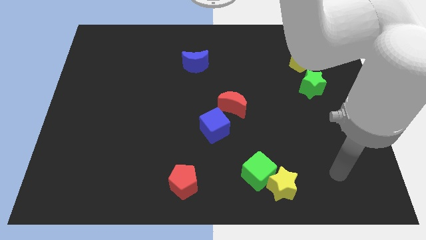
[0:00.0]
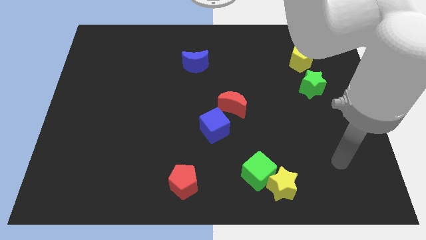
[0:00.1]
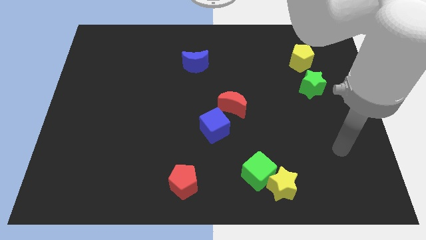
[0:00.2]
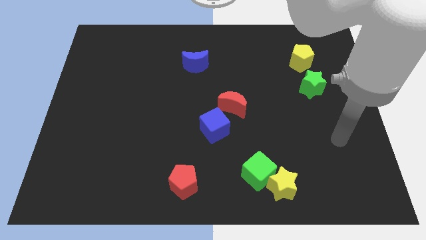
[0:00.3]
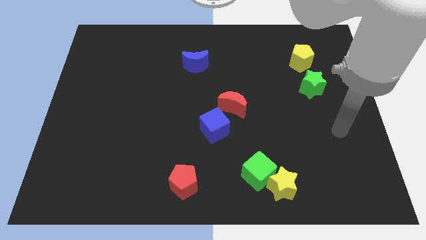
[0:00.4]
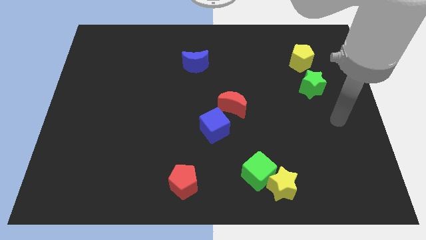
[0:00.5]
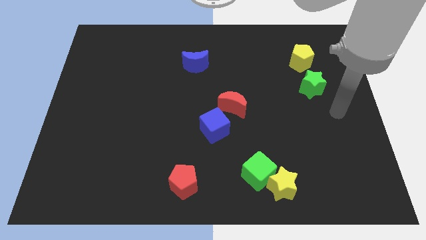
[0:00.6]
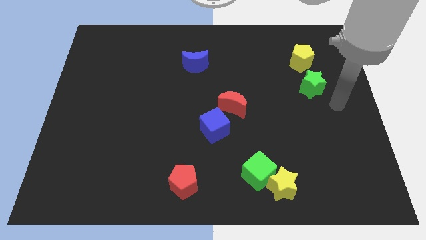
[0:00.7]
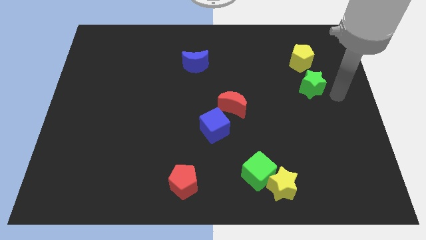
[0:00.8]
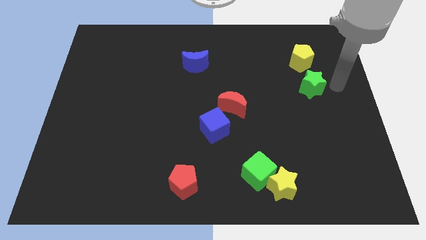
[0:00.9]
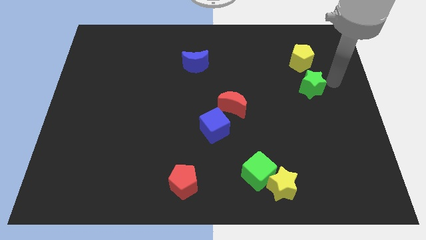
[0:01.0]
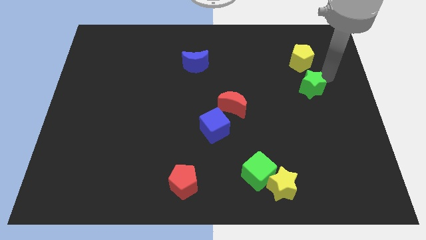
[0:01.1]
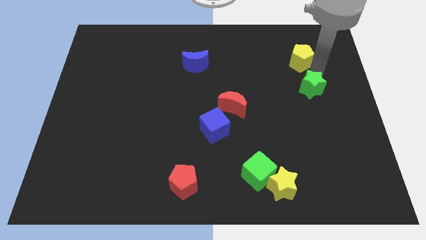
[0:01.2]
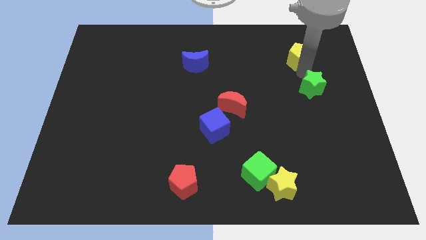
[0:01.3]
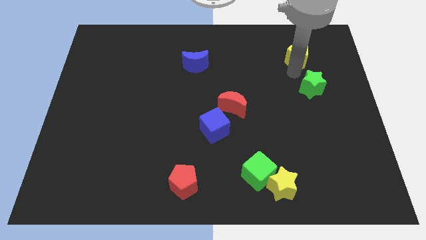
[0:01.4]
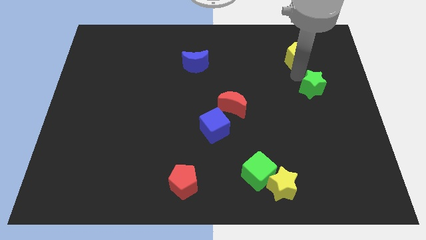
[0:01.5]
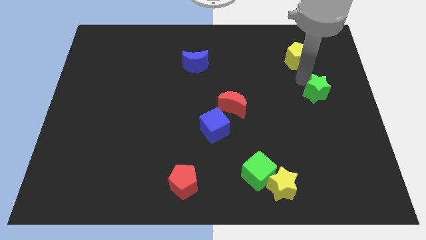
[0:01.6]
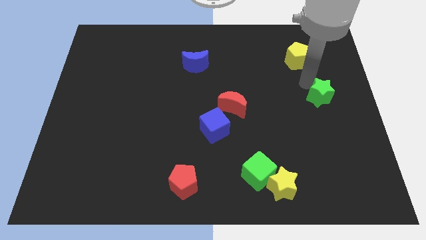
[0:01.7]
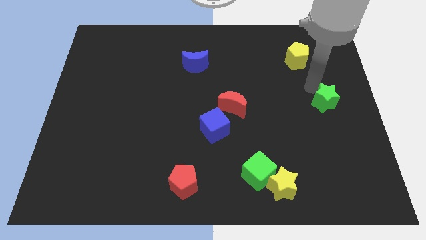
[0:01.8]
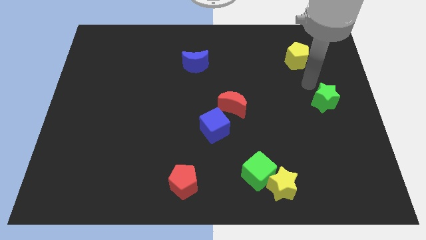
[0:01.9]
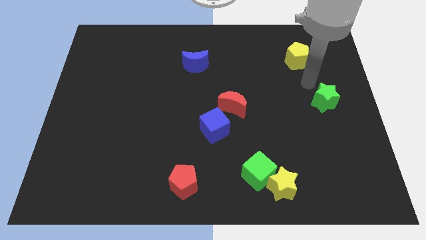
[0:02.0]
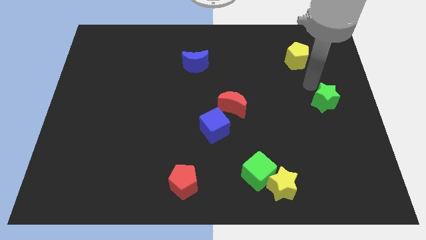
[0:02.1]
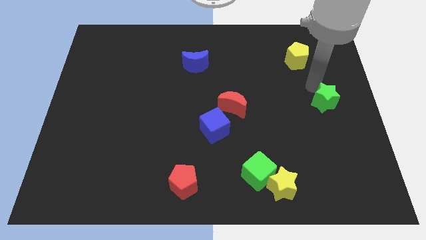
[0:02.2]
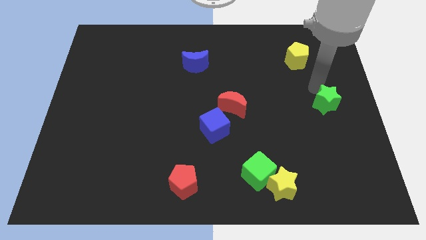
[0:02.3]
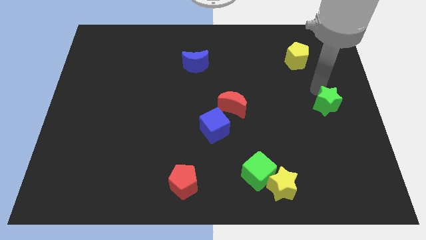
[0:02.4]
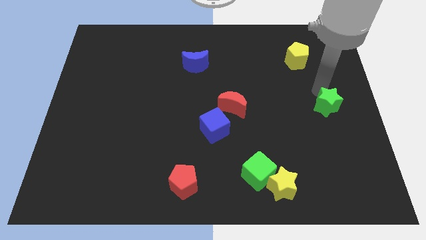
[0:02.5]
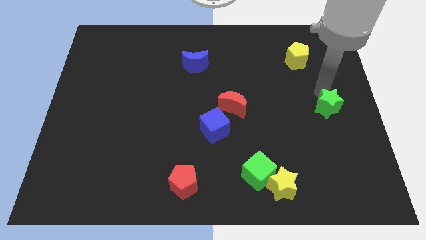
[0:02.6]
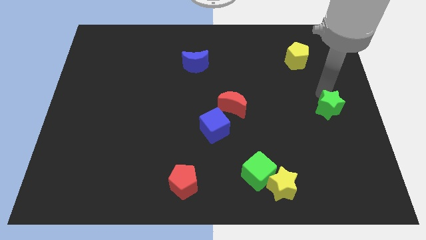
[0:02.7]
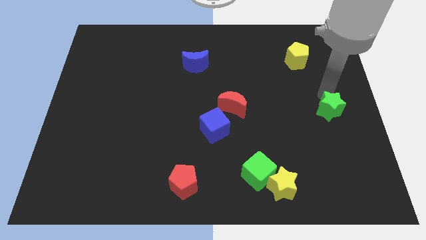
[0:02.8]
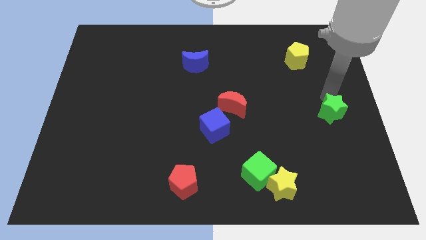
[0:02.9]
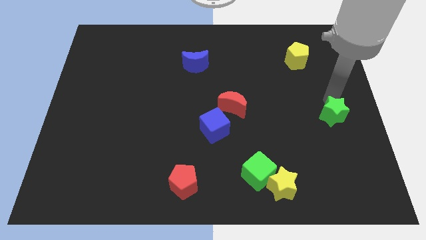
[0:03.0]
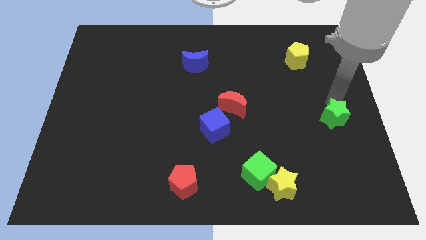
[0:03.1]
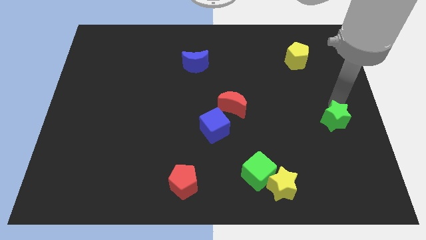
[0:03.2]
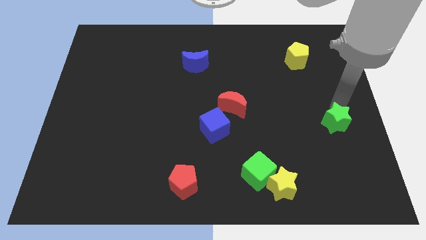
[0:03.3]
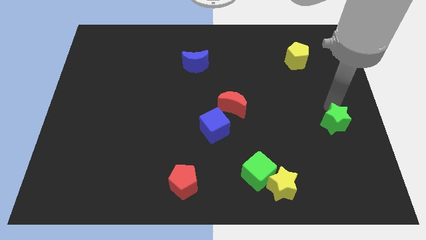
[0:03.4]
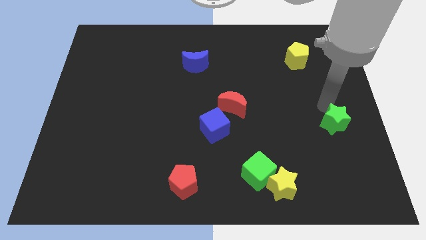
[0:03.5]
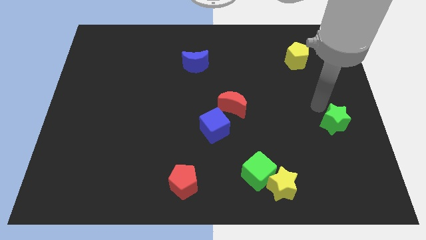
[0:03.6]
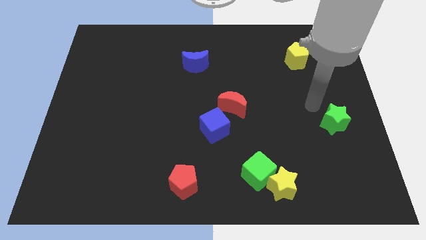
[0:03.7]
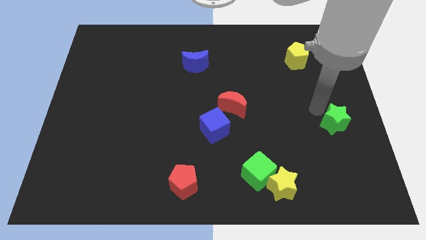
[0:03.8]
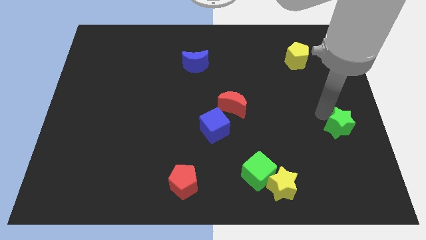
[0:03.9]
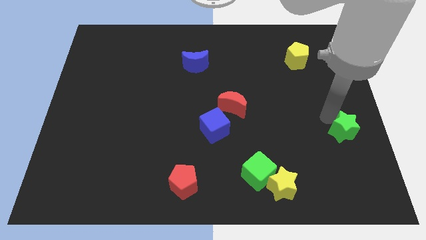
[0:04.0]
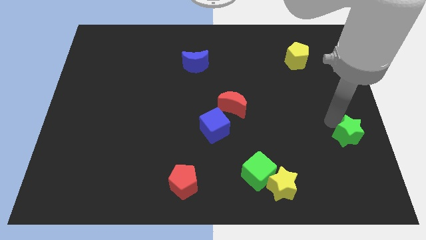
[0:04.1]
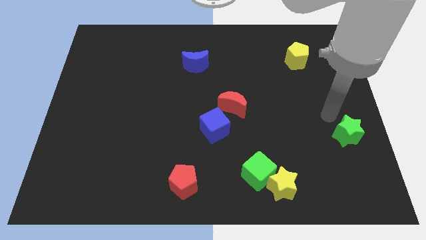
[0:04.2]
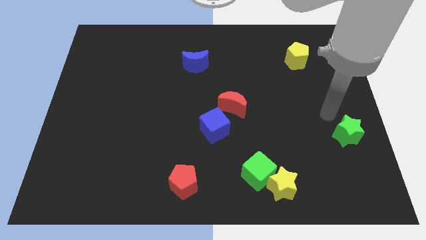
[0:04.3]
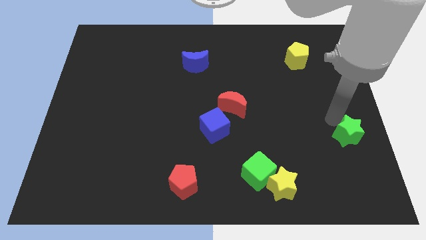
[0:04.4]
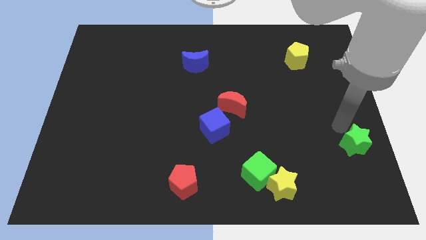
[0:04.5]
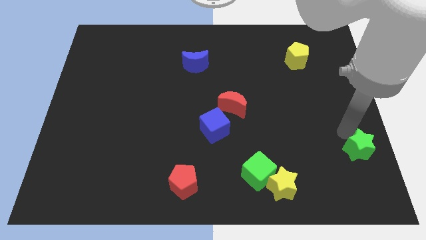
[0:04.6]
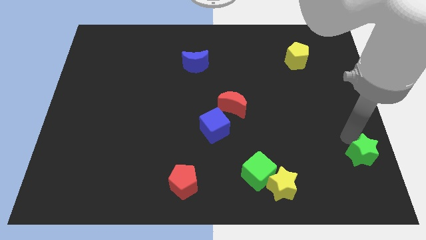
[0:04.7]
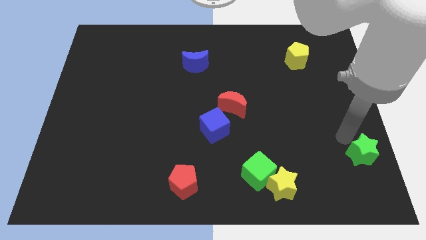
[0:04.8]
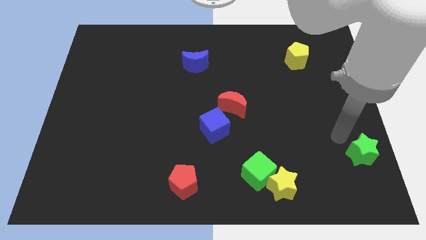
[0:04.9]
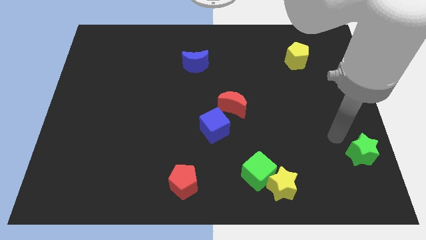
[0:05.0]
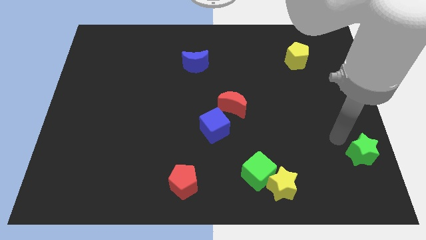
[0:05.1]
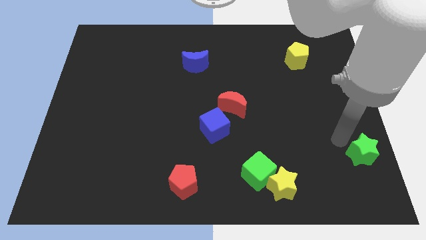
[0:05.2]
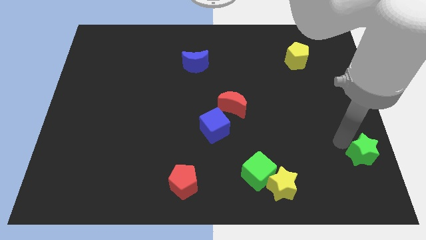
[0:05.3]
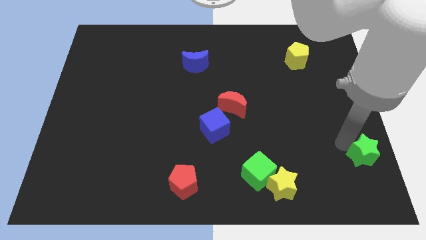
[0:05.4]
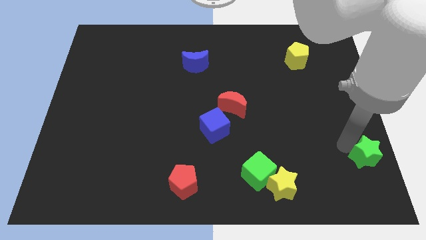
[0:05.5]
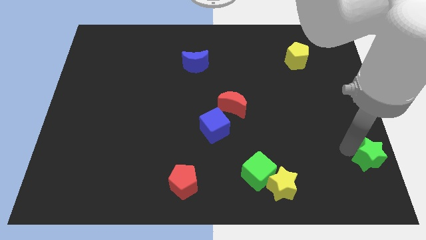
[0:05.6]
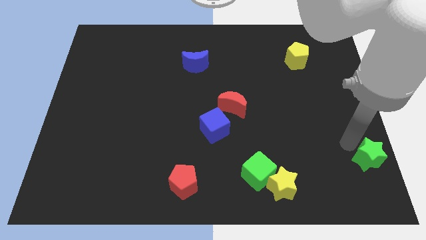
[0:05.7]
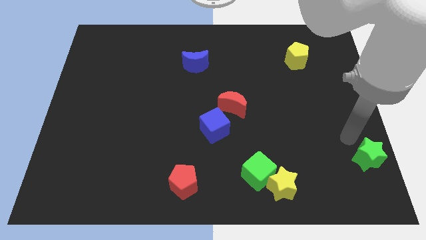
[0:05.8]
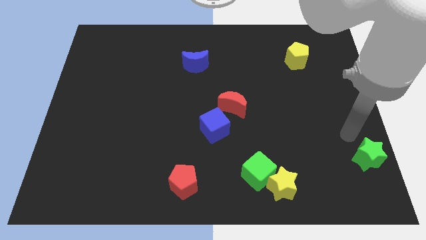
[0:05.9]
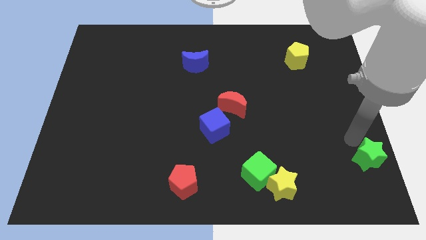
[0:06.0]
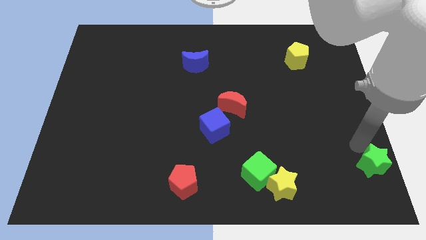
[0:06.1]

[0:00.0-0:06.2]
put the green star to the bottom right of the board

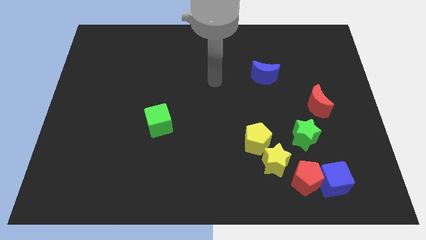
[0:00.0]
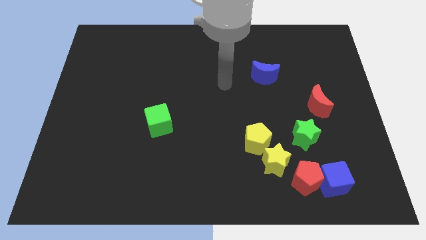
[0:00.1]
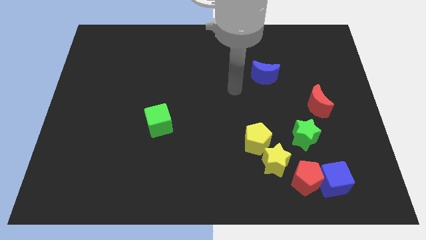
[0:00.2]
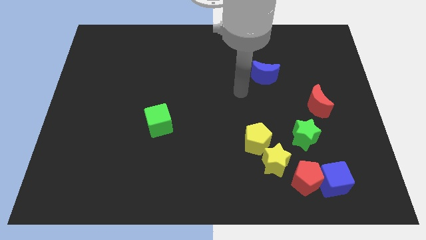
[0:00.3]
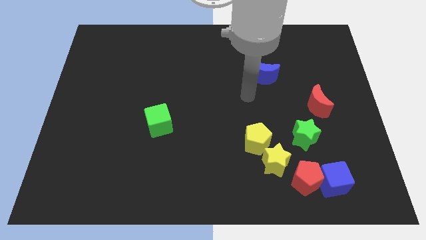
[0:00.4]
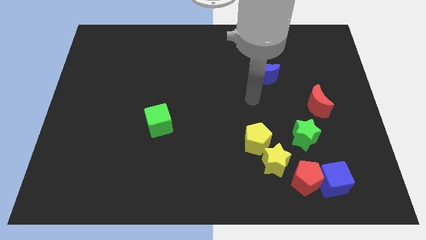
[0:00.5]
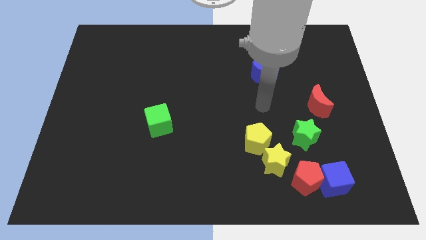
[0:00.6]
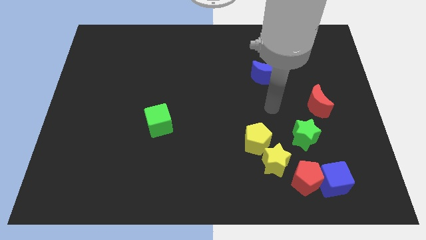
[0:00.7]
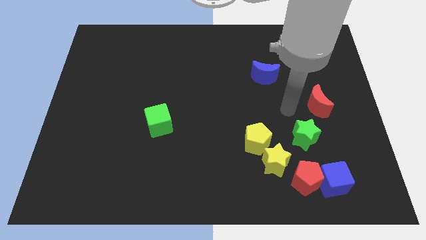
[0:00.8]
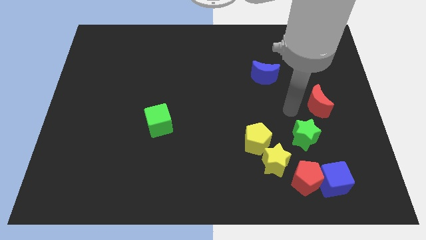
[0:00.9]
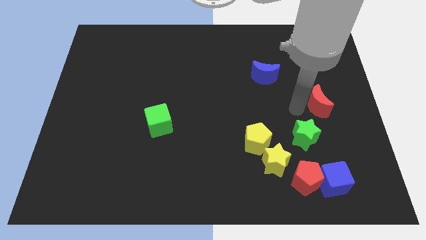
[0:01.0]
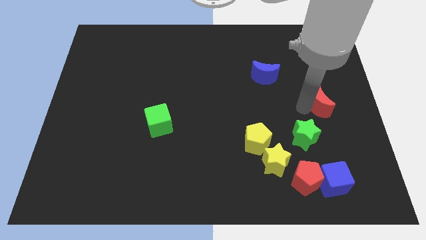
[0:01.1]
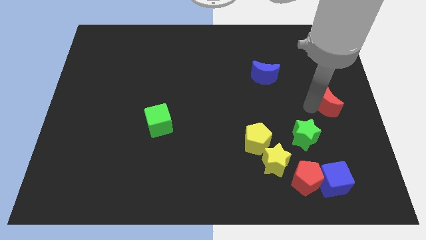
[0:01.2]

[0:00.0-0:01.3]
move the red moon to the center right
